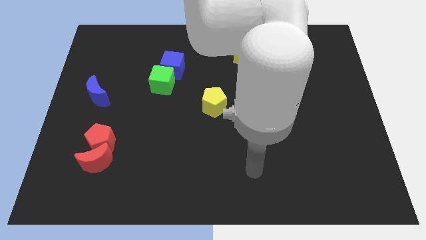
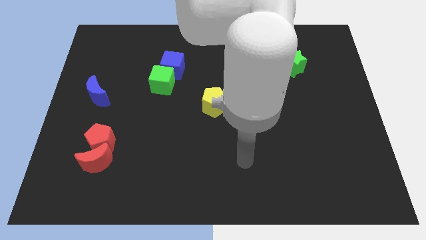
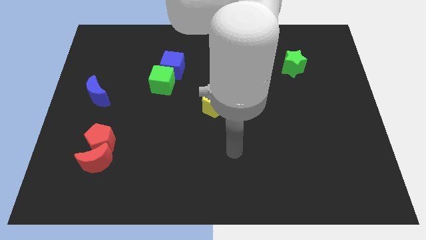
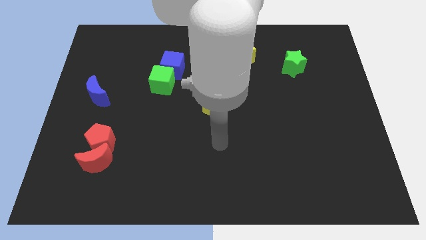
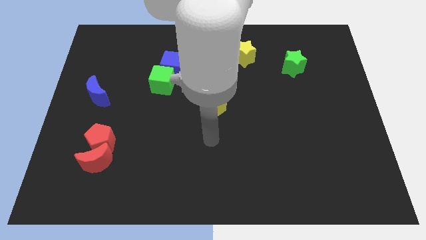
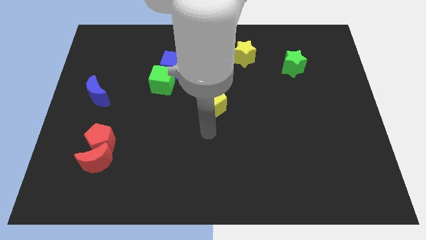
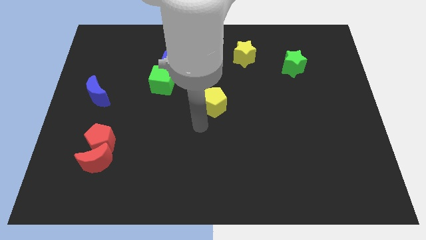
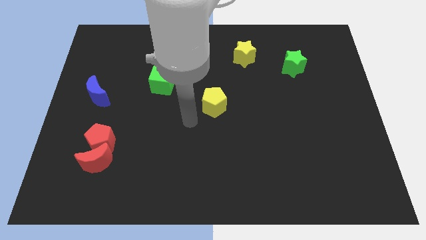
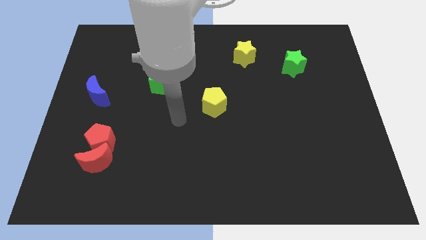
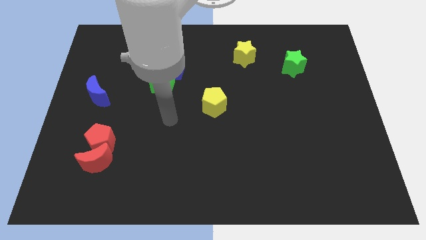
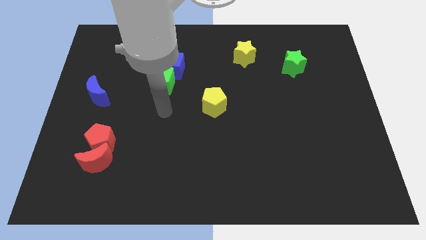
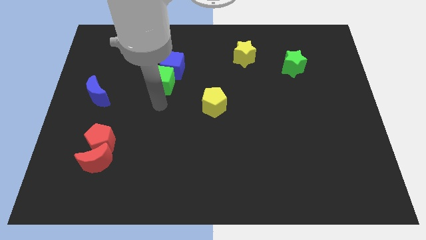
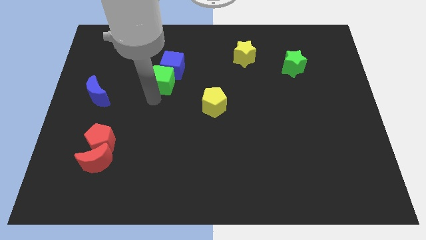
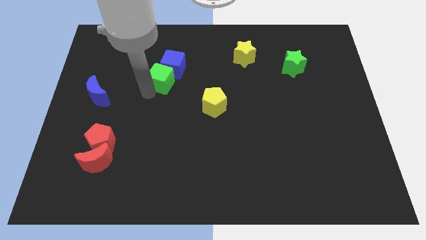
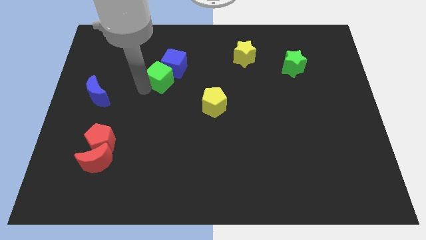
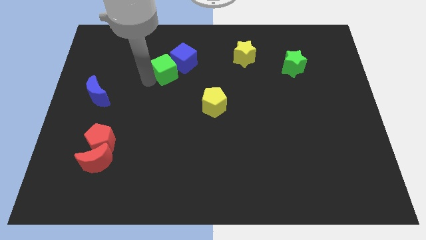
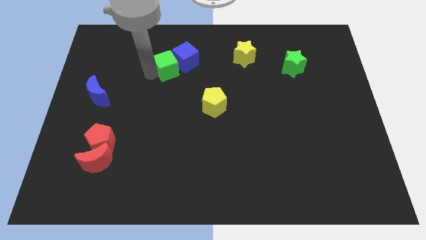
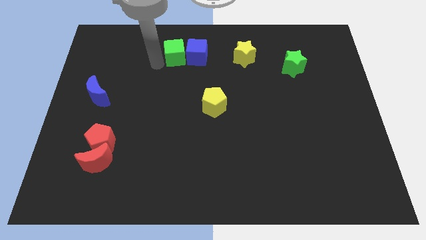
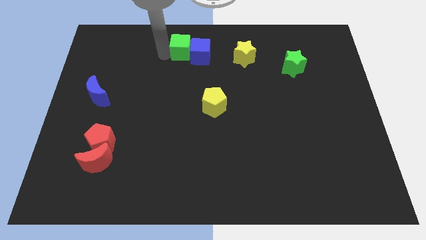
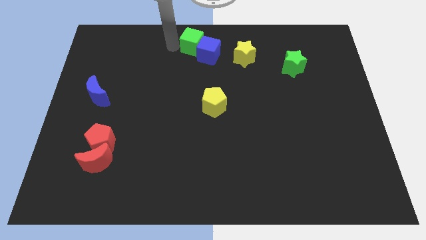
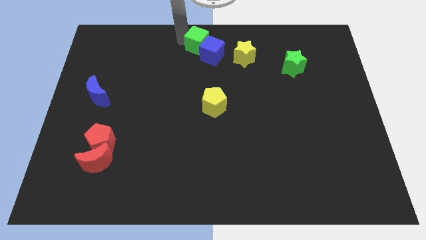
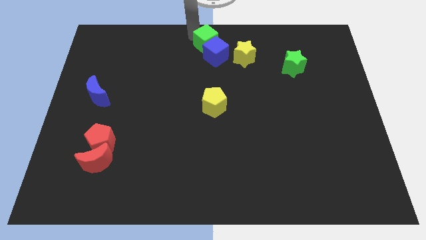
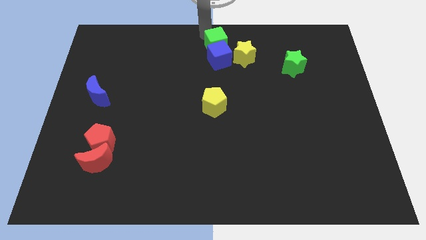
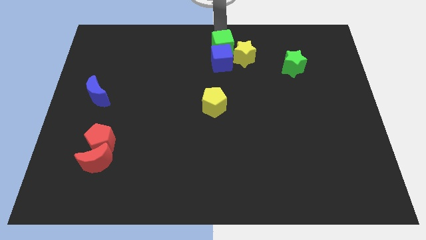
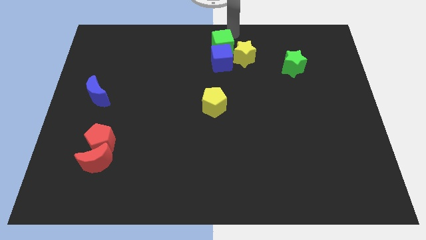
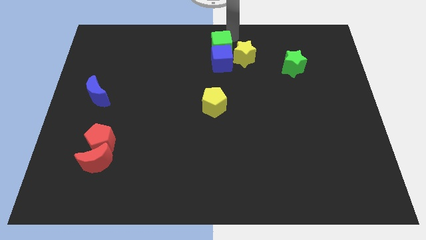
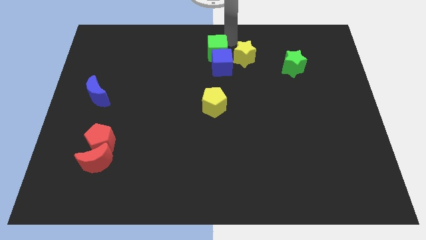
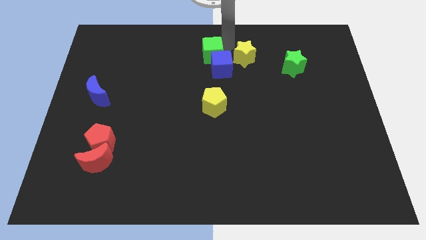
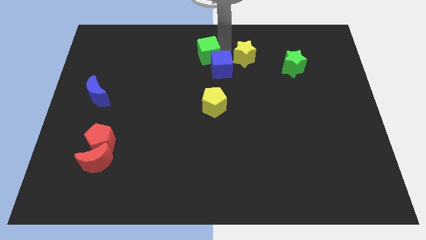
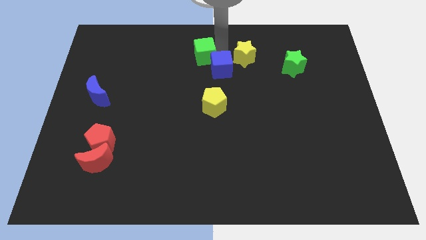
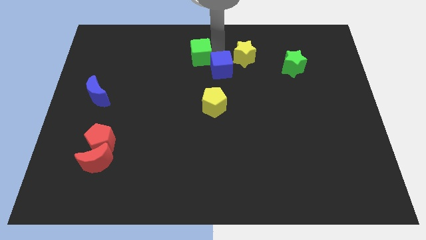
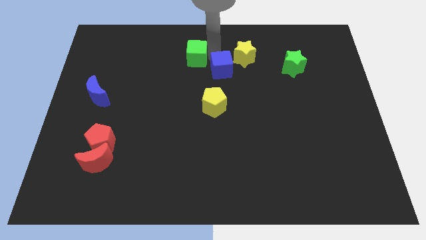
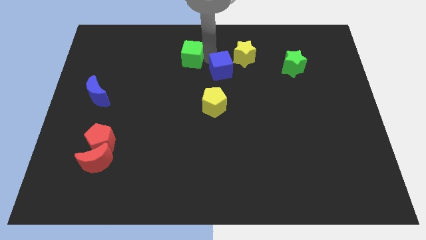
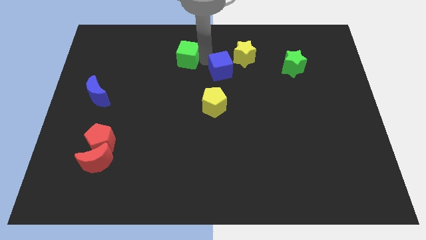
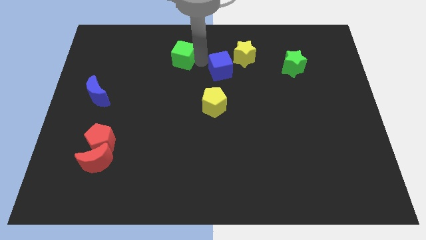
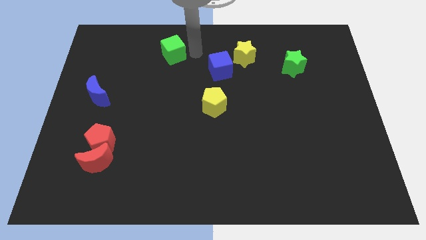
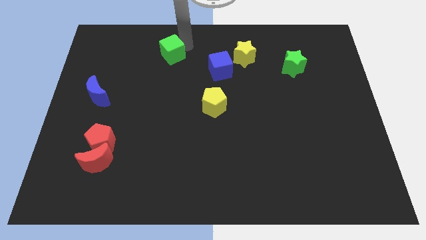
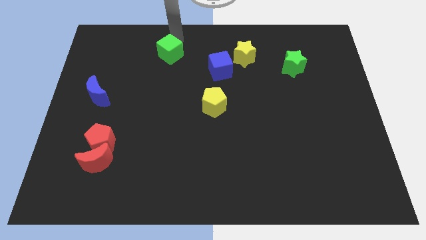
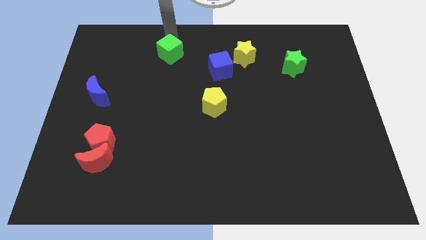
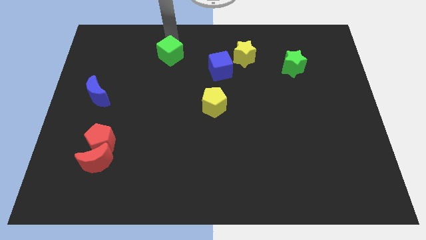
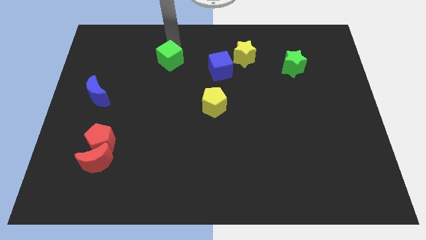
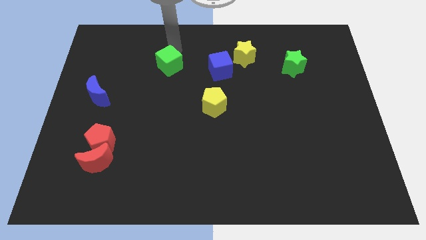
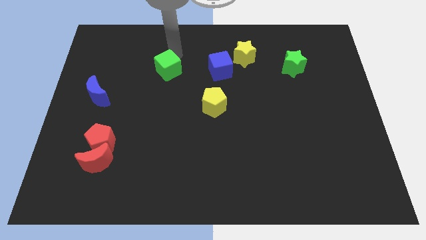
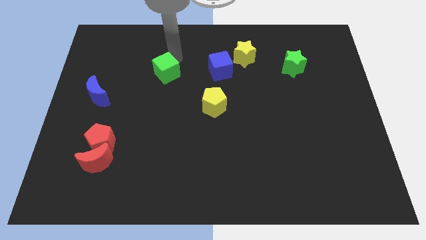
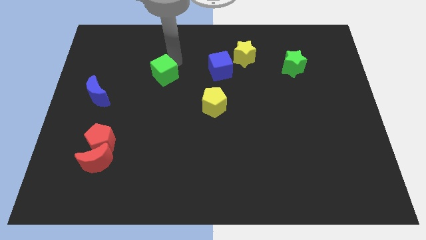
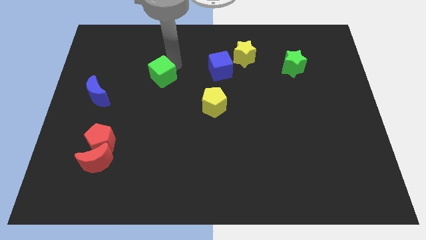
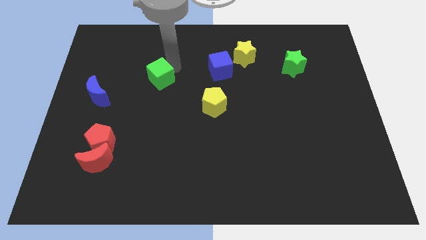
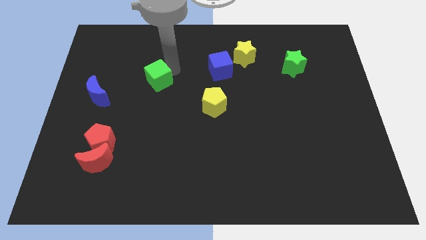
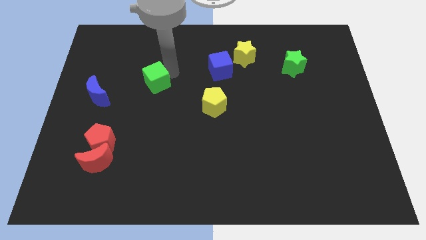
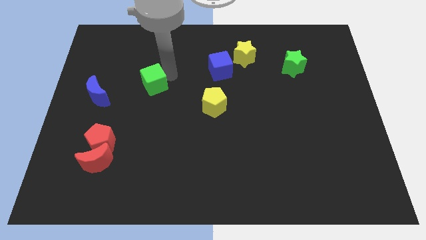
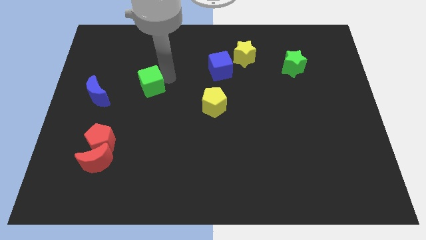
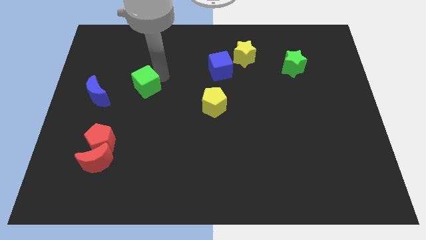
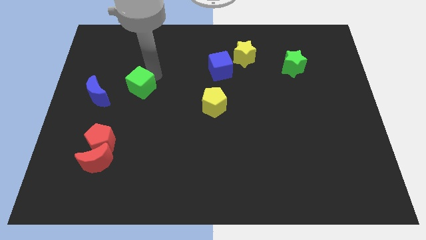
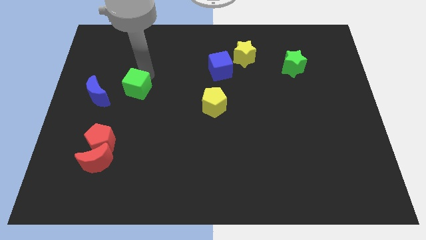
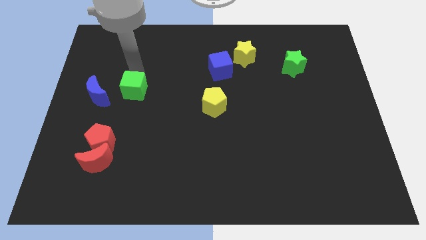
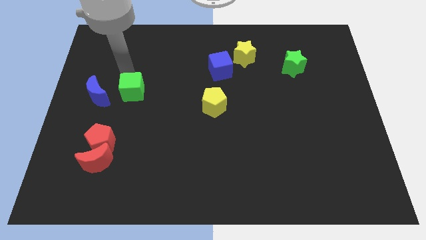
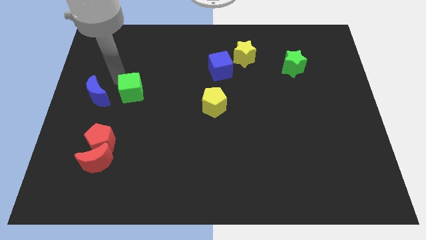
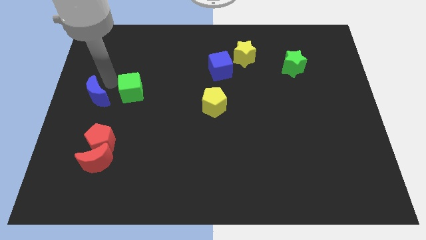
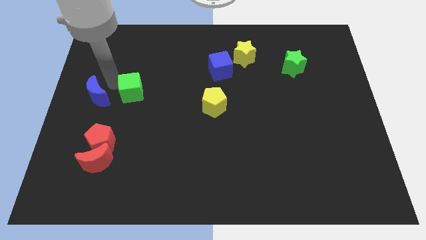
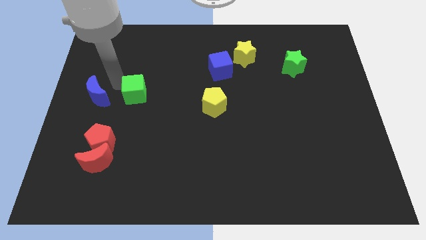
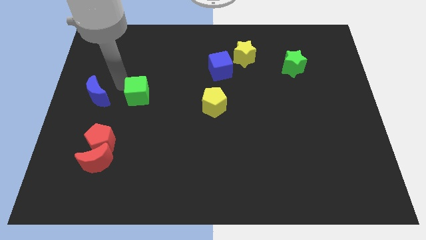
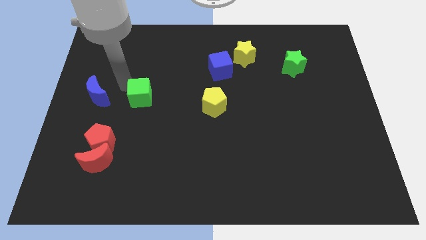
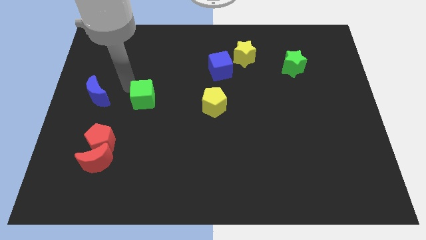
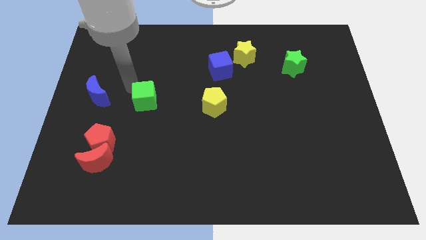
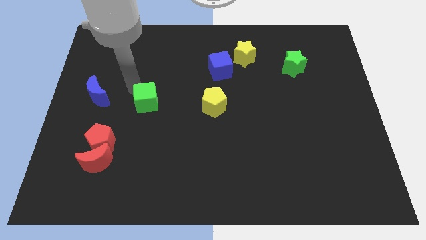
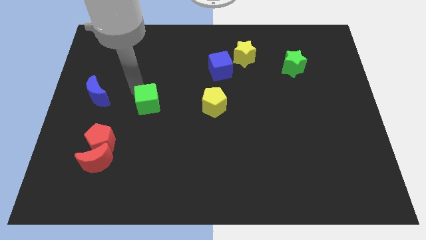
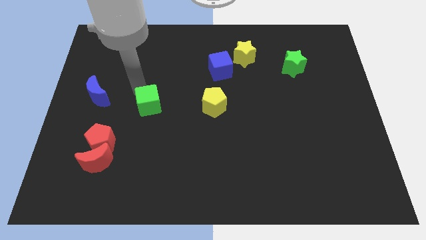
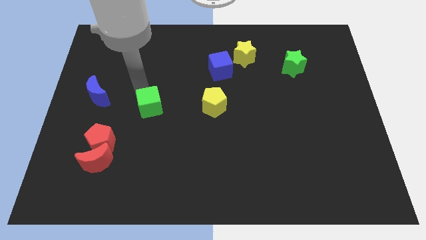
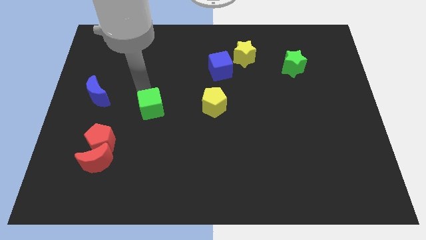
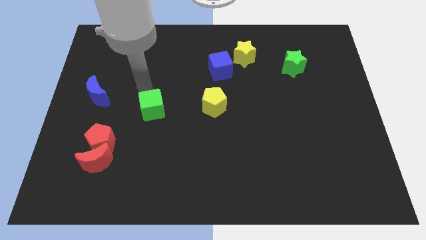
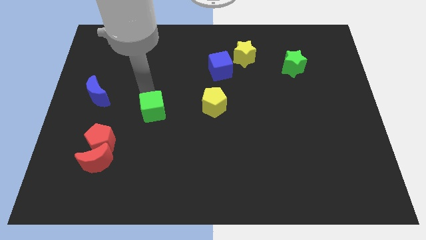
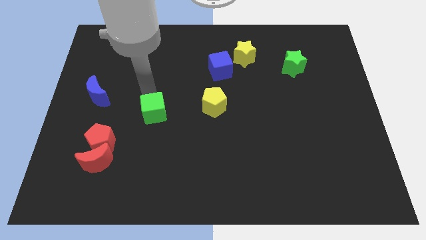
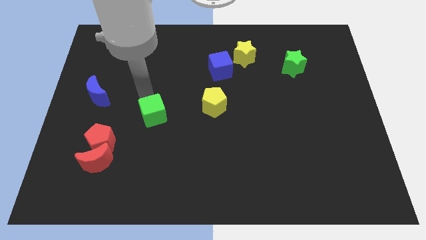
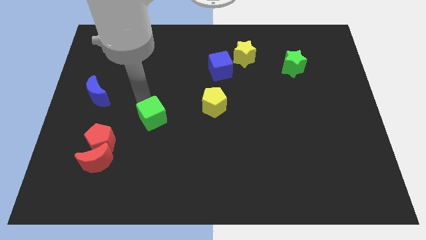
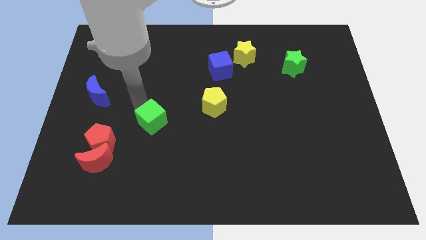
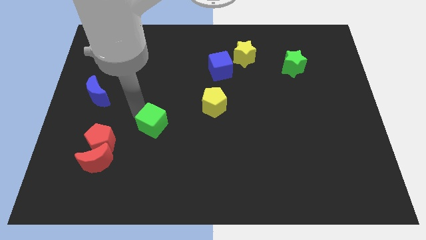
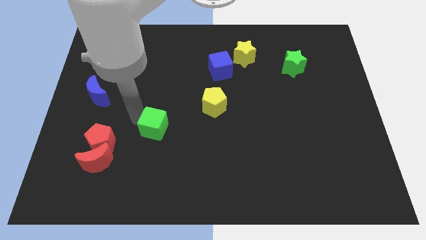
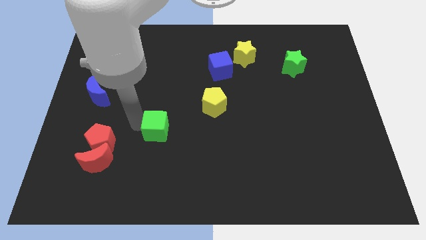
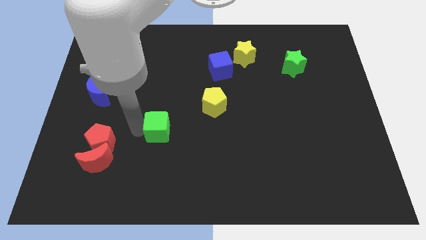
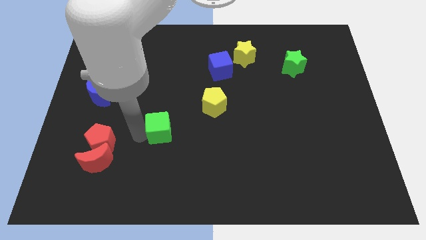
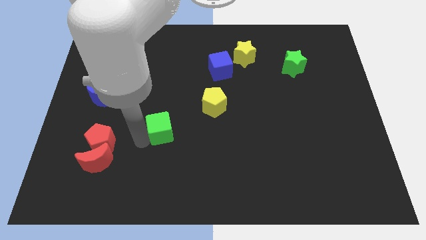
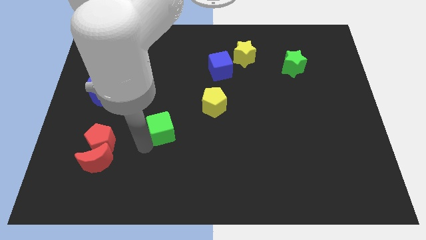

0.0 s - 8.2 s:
slightly push the green cube diagonally down and right
